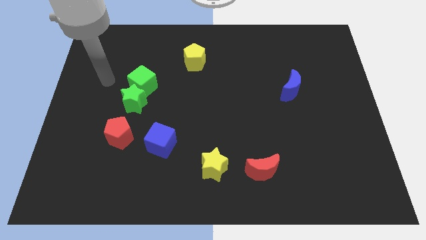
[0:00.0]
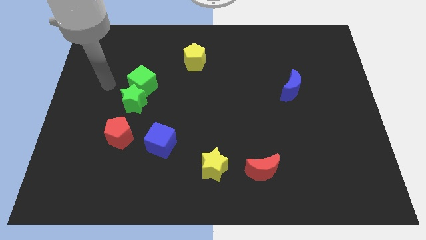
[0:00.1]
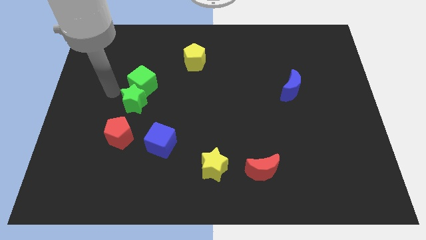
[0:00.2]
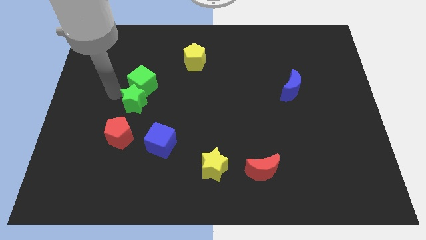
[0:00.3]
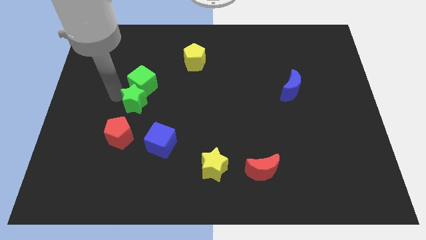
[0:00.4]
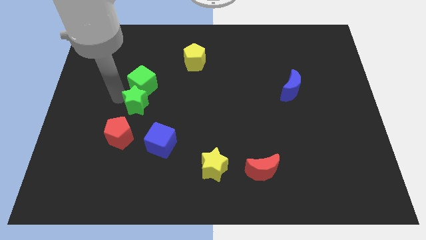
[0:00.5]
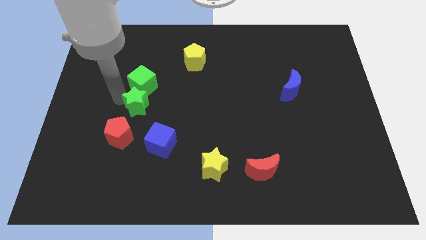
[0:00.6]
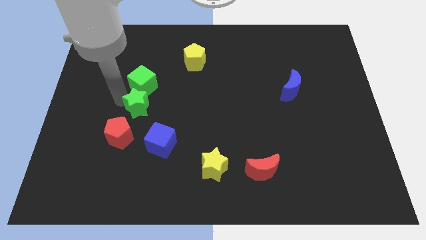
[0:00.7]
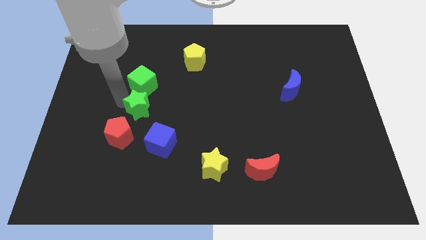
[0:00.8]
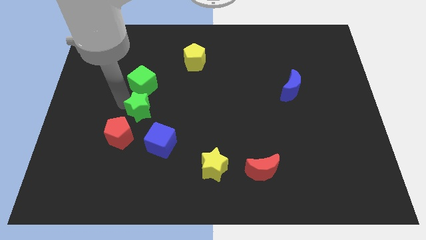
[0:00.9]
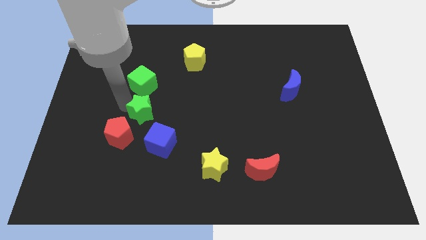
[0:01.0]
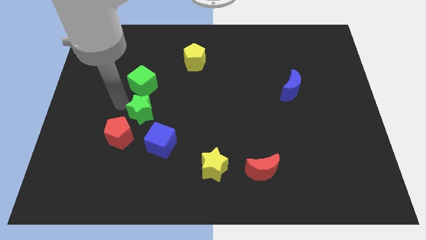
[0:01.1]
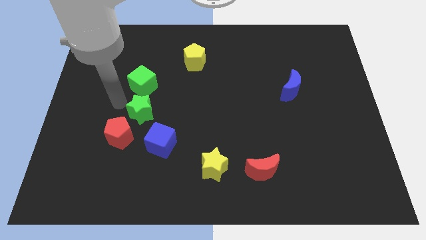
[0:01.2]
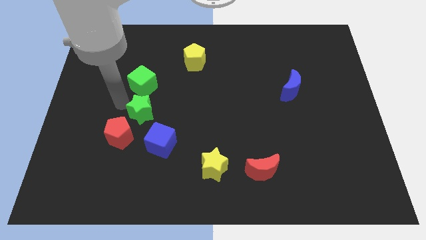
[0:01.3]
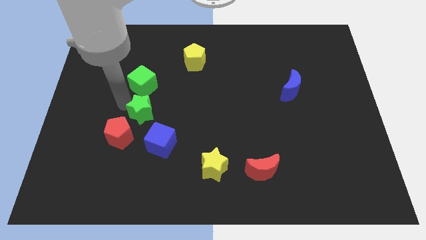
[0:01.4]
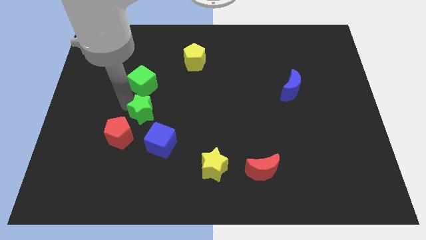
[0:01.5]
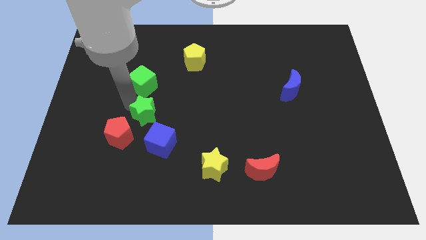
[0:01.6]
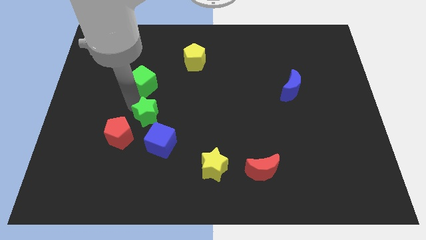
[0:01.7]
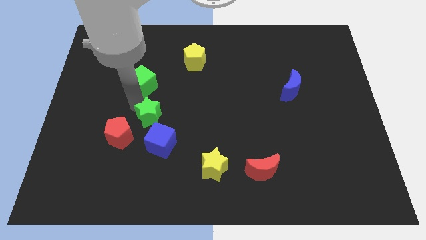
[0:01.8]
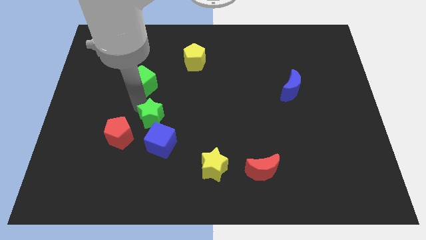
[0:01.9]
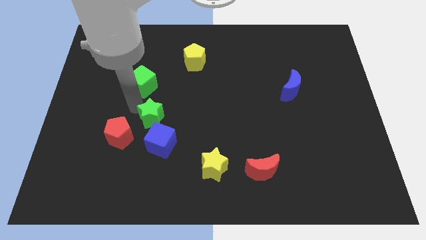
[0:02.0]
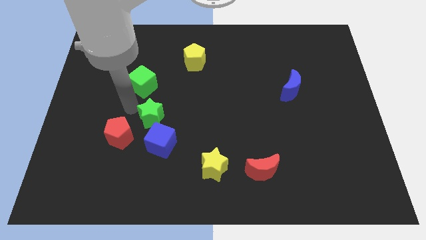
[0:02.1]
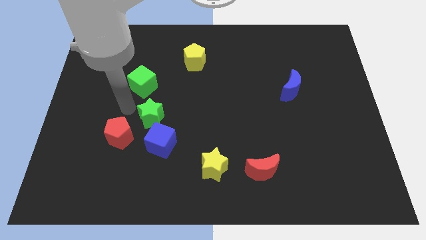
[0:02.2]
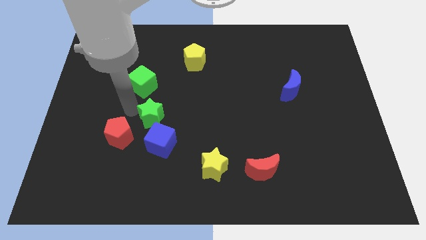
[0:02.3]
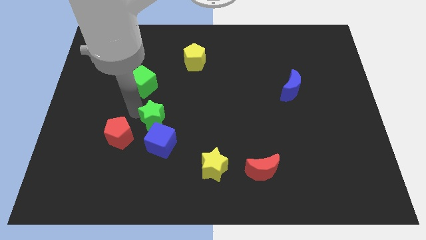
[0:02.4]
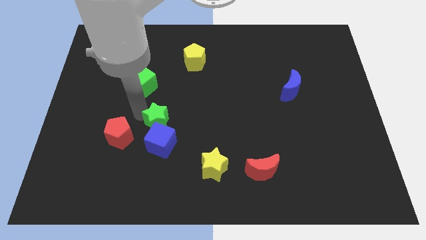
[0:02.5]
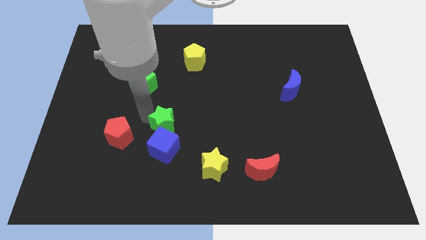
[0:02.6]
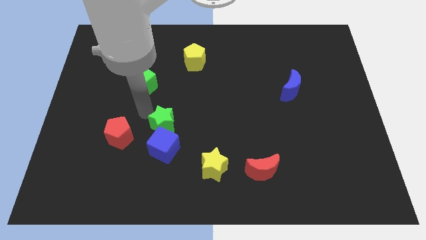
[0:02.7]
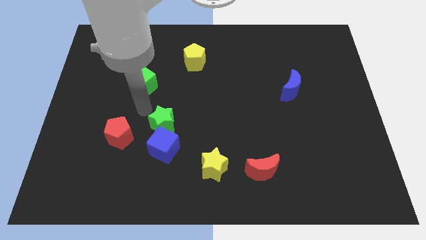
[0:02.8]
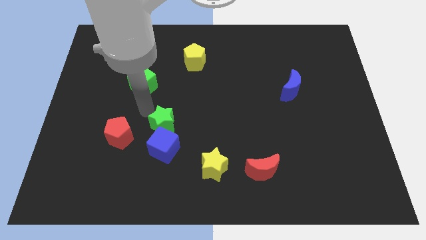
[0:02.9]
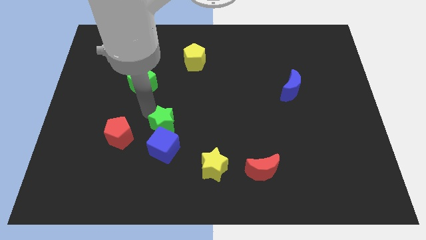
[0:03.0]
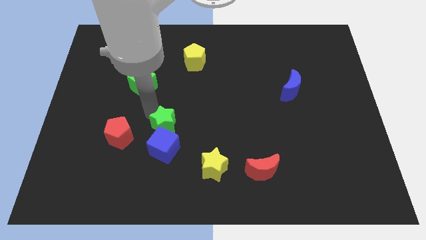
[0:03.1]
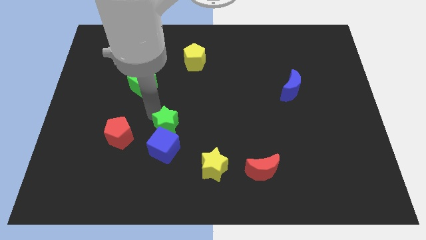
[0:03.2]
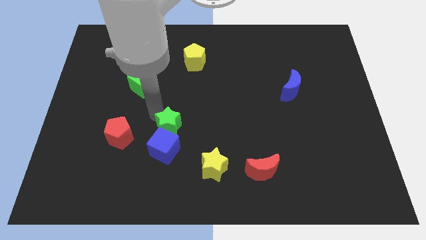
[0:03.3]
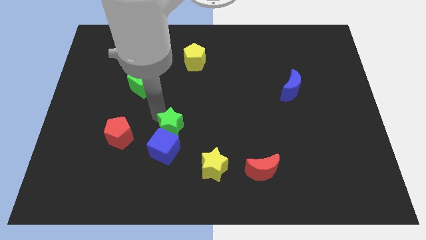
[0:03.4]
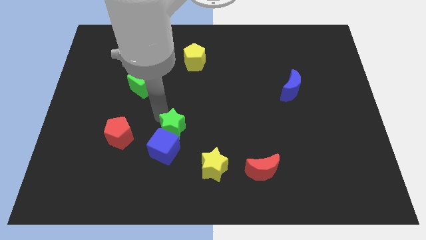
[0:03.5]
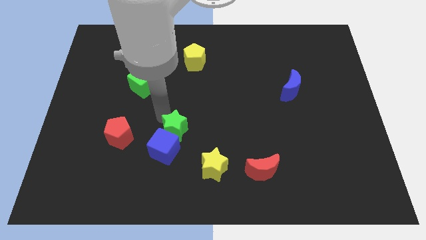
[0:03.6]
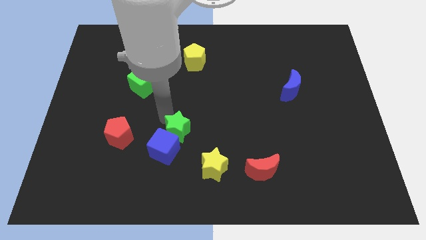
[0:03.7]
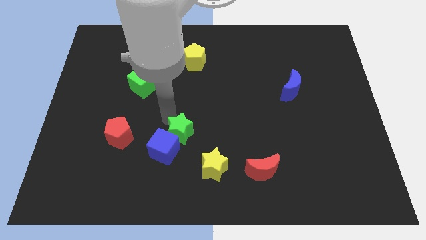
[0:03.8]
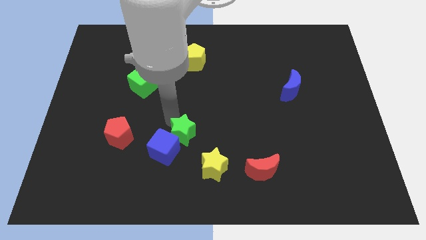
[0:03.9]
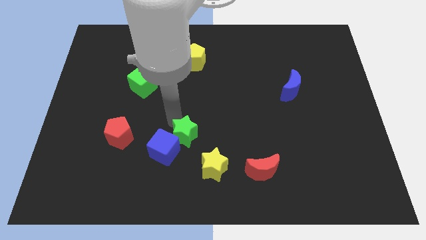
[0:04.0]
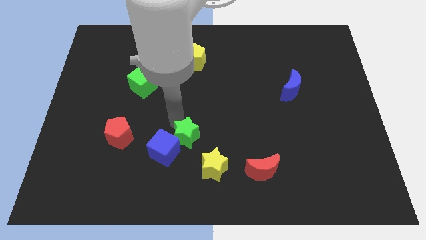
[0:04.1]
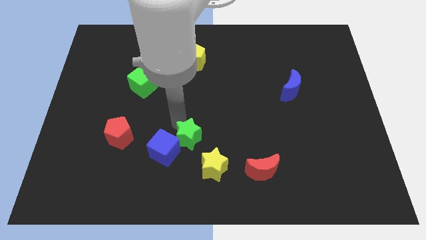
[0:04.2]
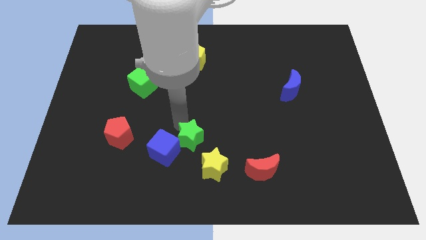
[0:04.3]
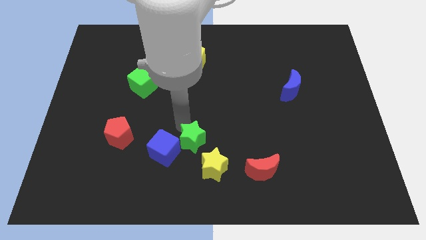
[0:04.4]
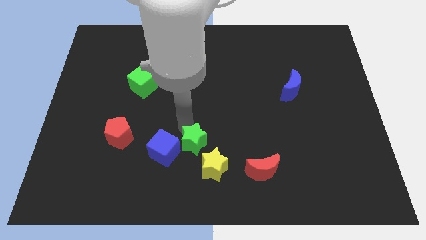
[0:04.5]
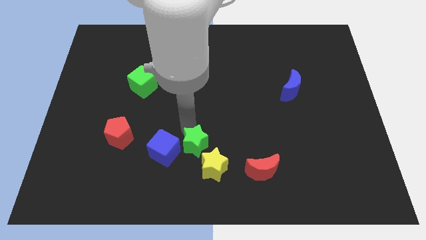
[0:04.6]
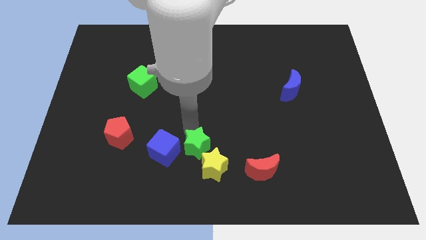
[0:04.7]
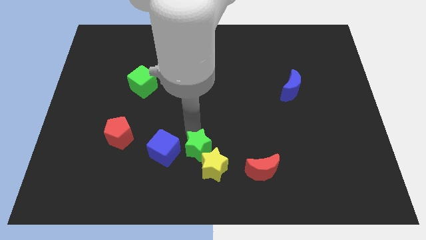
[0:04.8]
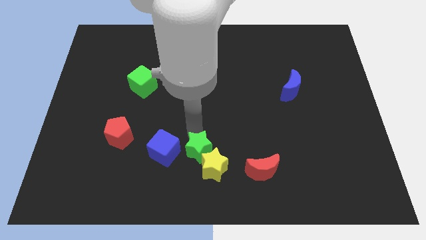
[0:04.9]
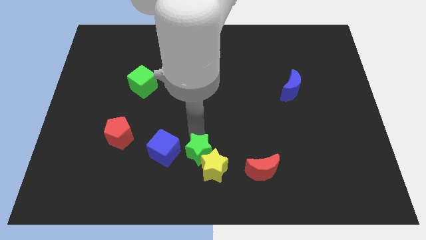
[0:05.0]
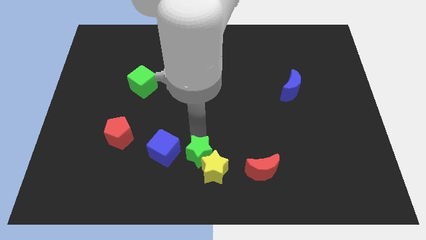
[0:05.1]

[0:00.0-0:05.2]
slide the green star to the bottom
